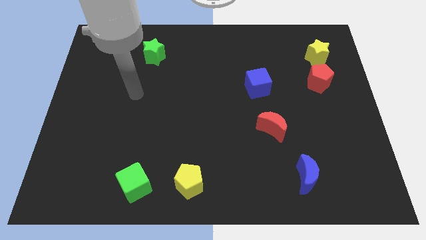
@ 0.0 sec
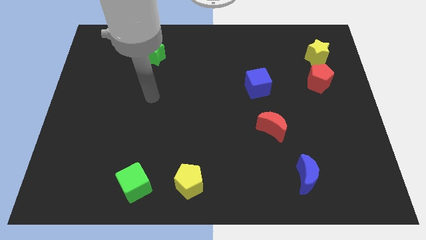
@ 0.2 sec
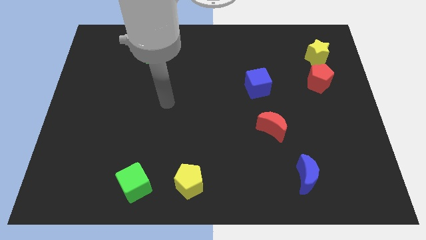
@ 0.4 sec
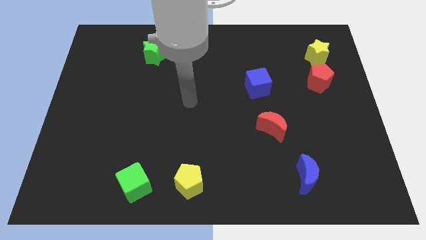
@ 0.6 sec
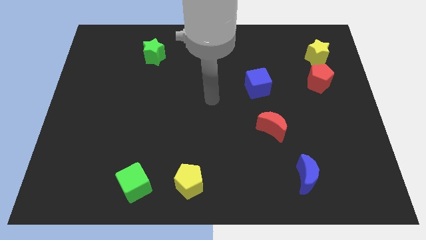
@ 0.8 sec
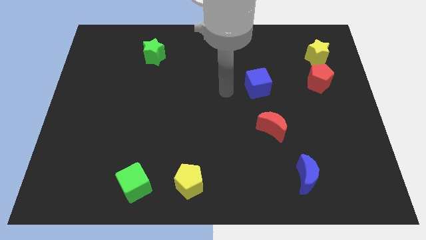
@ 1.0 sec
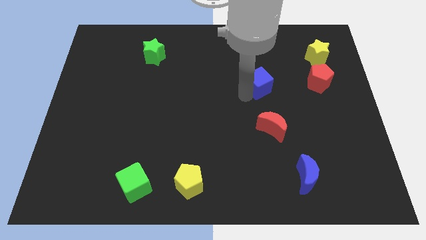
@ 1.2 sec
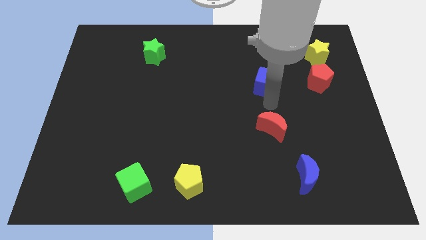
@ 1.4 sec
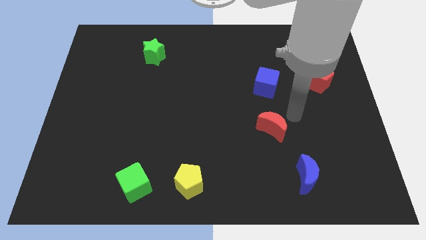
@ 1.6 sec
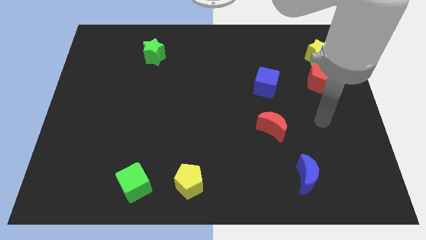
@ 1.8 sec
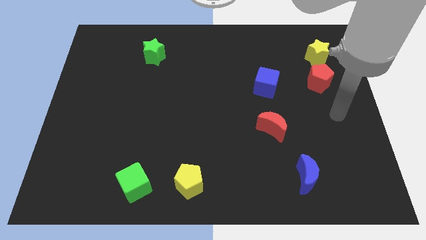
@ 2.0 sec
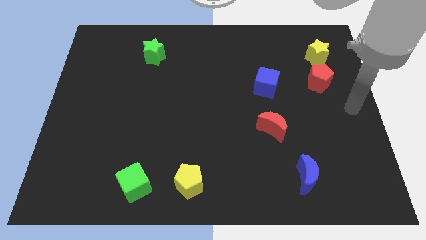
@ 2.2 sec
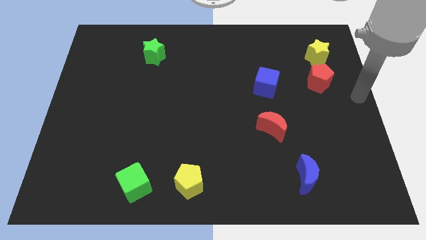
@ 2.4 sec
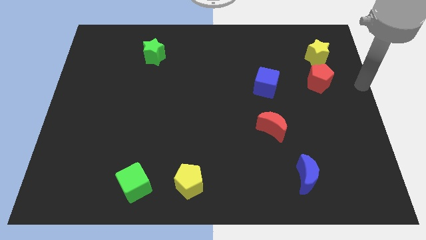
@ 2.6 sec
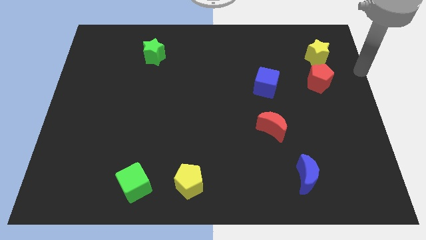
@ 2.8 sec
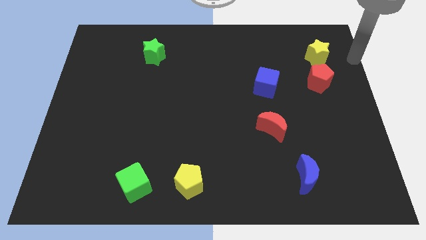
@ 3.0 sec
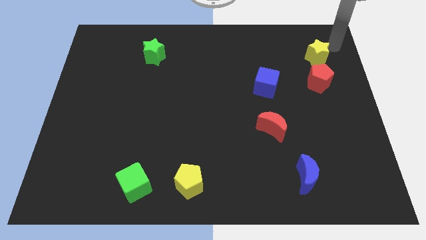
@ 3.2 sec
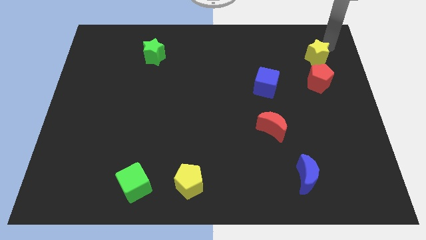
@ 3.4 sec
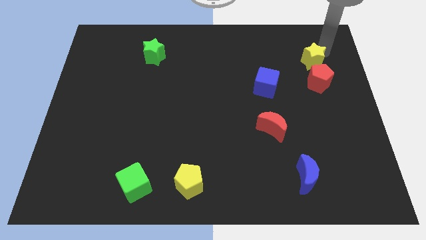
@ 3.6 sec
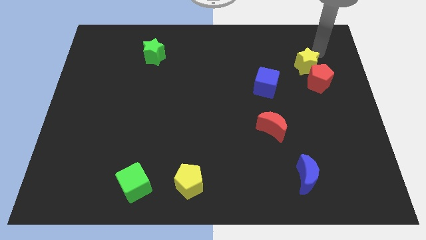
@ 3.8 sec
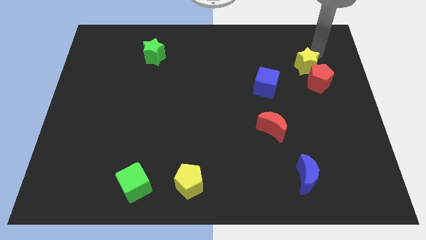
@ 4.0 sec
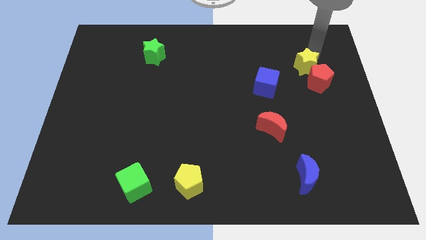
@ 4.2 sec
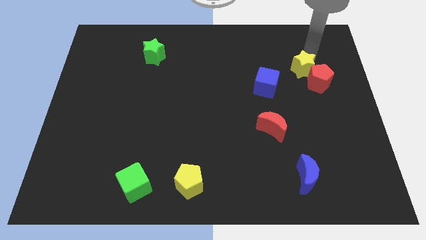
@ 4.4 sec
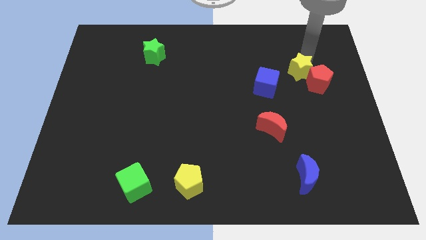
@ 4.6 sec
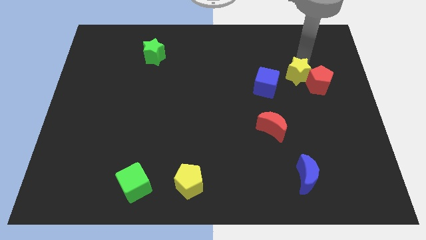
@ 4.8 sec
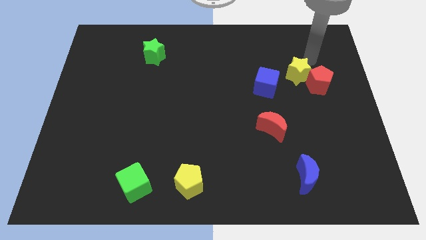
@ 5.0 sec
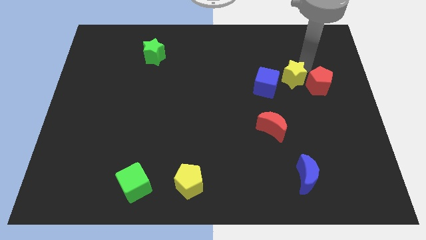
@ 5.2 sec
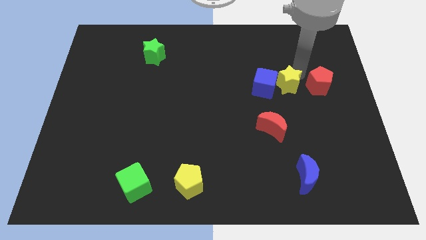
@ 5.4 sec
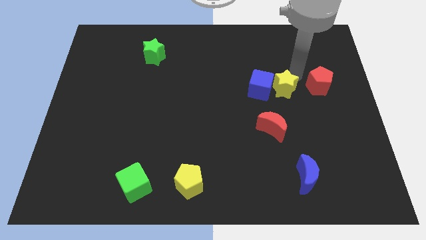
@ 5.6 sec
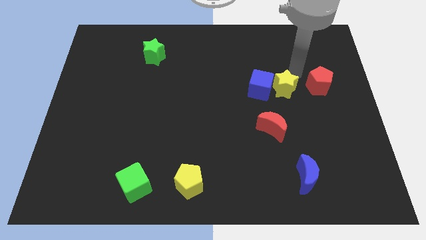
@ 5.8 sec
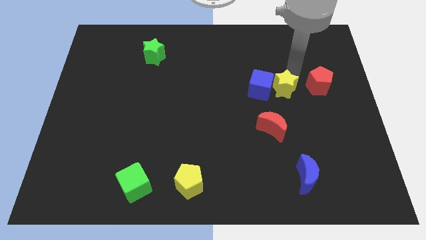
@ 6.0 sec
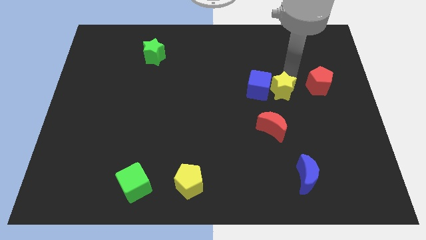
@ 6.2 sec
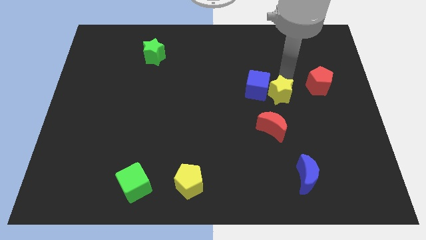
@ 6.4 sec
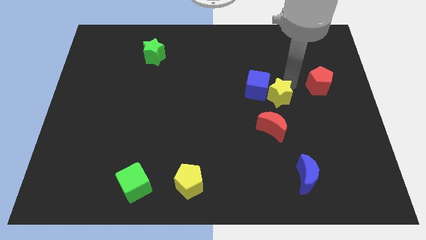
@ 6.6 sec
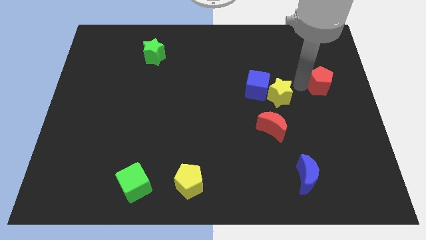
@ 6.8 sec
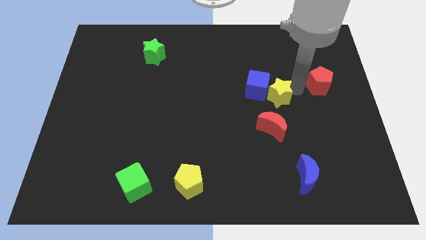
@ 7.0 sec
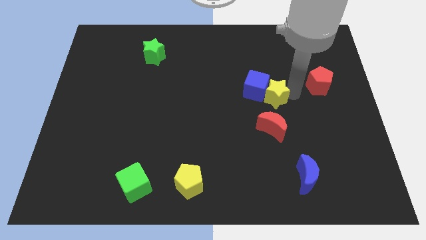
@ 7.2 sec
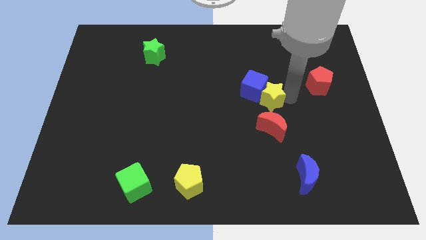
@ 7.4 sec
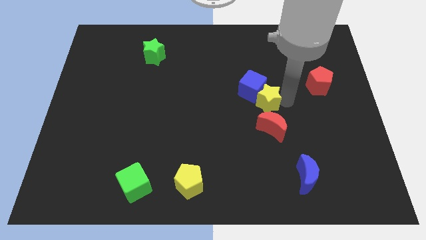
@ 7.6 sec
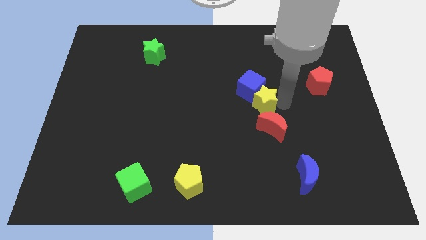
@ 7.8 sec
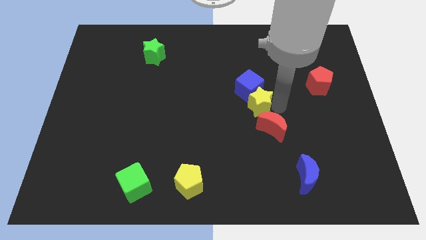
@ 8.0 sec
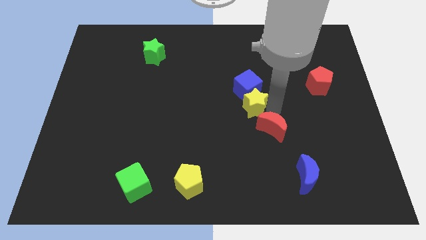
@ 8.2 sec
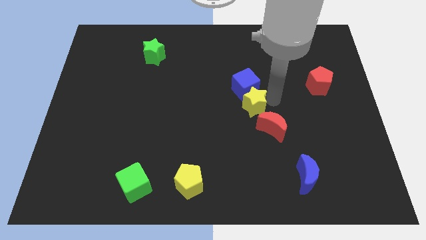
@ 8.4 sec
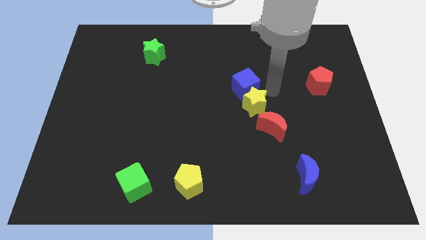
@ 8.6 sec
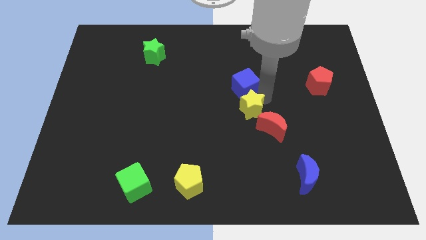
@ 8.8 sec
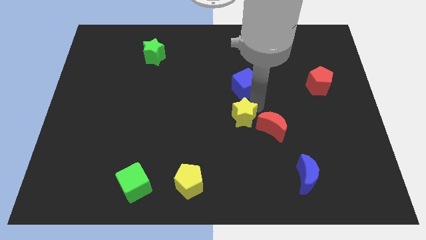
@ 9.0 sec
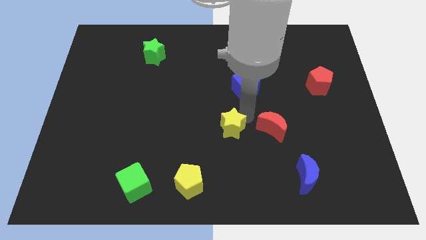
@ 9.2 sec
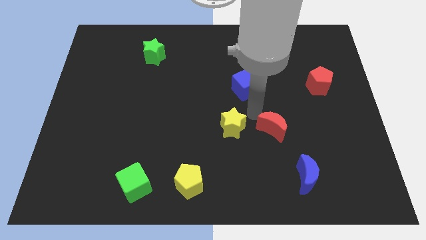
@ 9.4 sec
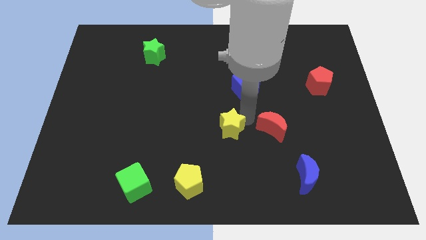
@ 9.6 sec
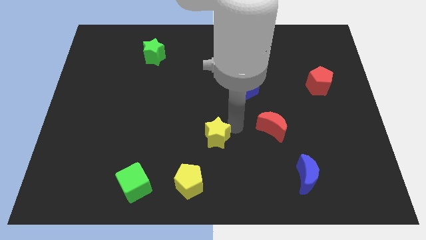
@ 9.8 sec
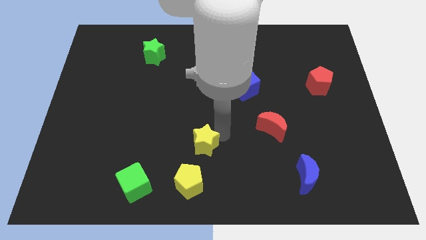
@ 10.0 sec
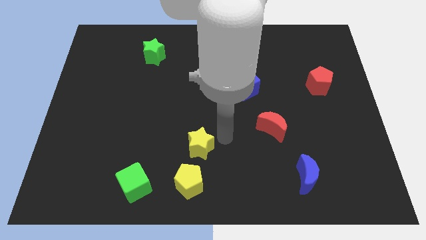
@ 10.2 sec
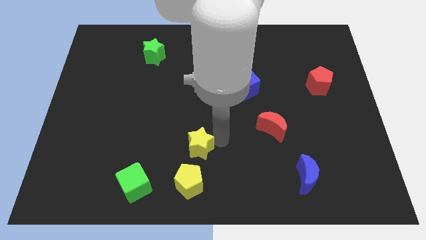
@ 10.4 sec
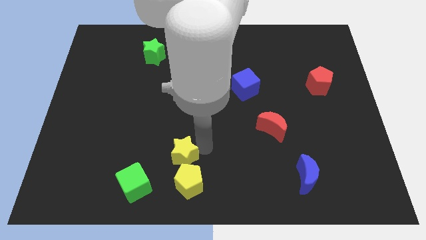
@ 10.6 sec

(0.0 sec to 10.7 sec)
move the yellow star to the top right of the green cube

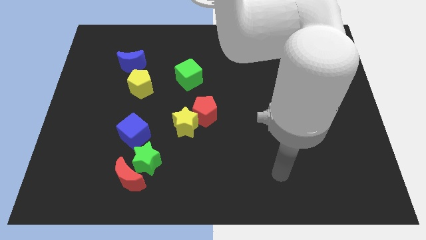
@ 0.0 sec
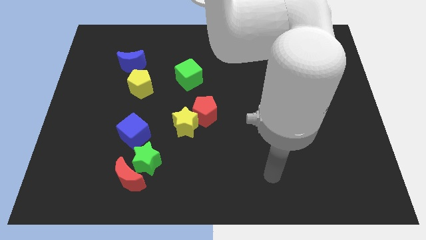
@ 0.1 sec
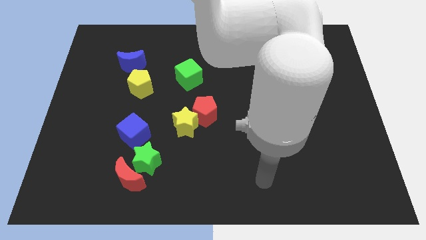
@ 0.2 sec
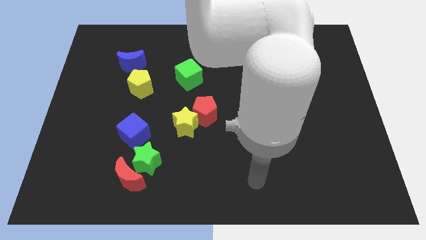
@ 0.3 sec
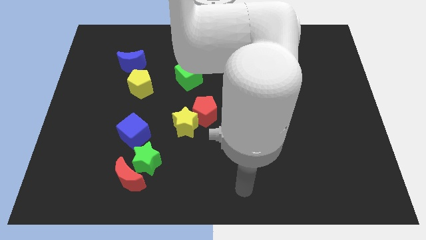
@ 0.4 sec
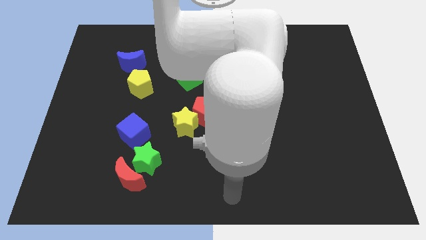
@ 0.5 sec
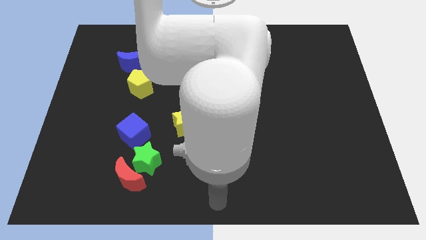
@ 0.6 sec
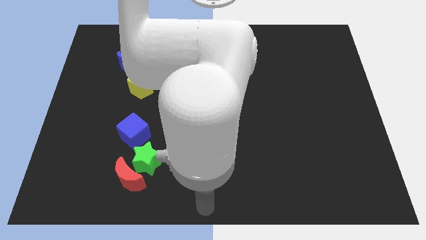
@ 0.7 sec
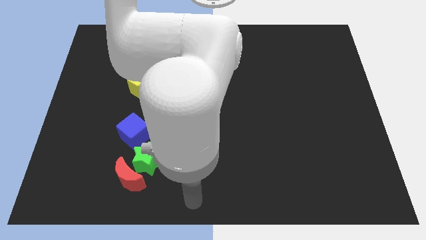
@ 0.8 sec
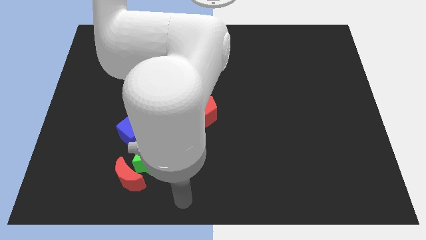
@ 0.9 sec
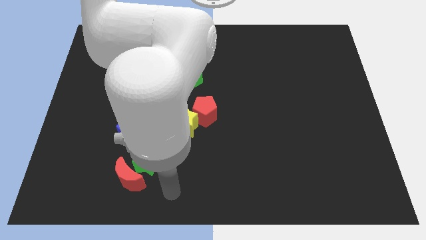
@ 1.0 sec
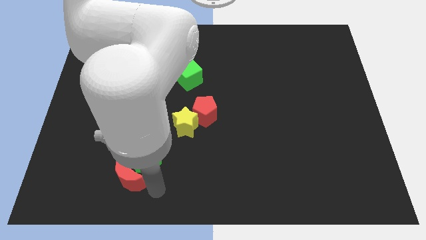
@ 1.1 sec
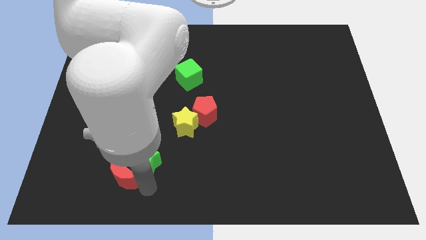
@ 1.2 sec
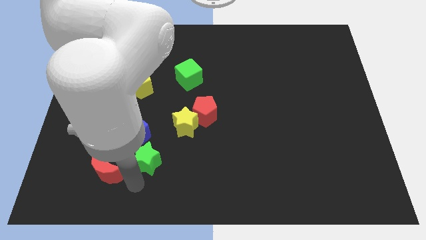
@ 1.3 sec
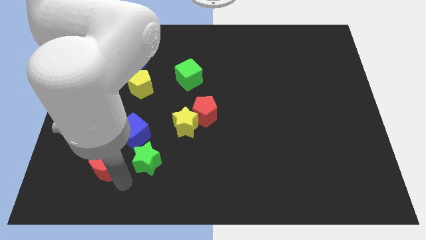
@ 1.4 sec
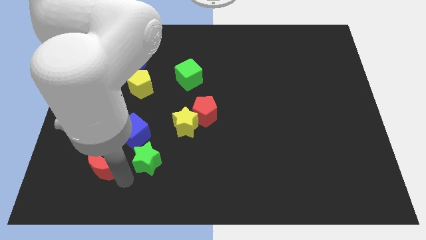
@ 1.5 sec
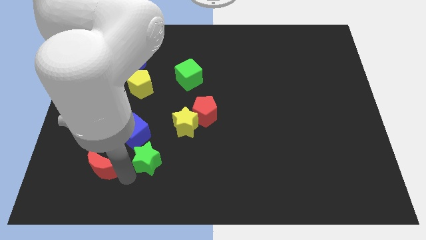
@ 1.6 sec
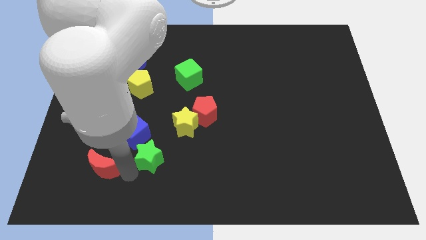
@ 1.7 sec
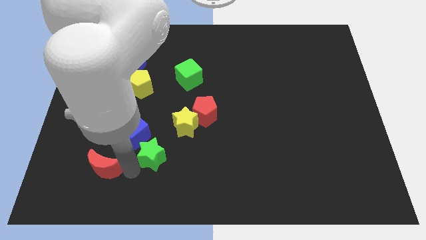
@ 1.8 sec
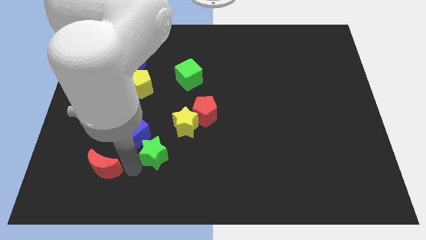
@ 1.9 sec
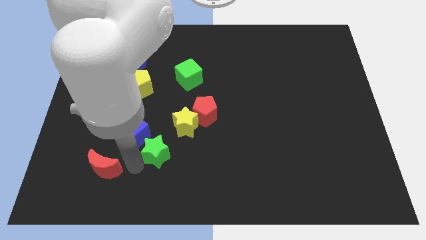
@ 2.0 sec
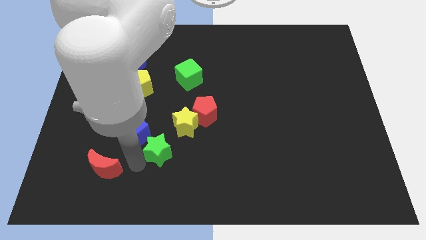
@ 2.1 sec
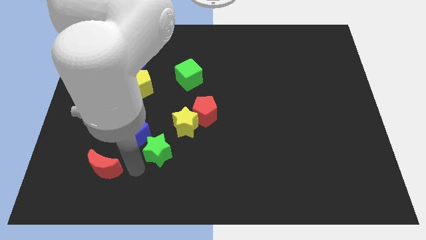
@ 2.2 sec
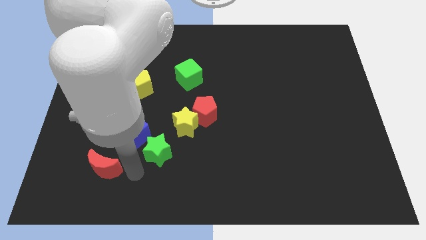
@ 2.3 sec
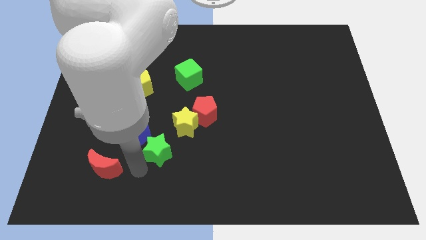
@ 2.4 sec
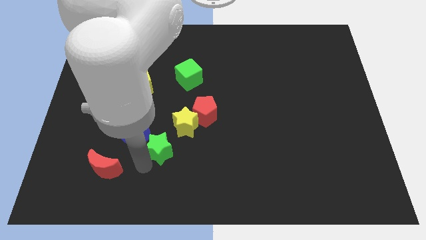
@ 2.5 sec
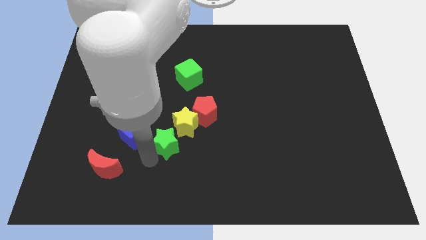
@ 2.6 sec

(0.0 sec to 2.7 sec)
slide the green star to the bottom left of the red pentagon
